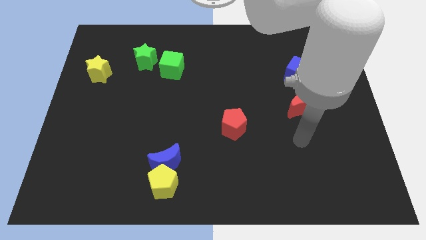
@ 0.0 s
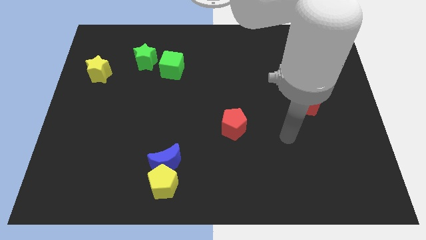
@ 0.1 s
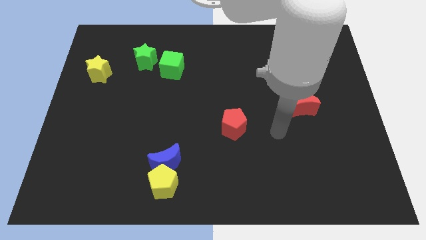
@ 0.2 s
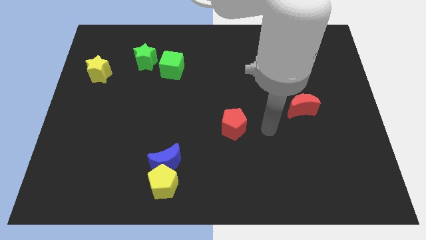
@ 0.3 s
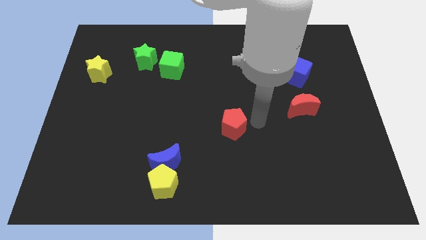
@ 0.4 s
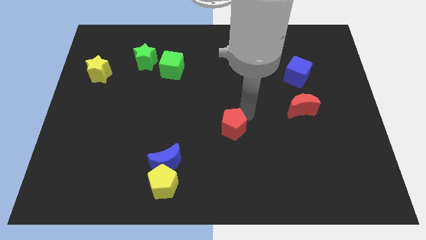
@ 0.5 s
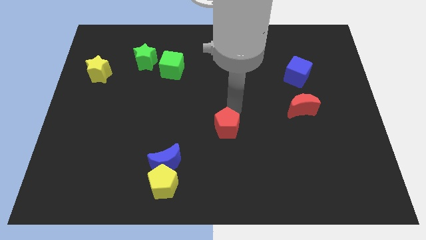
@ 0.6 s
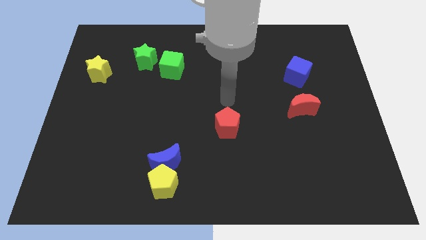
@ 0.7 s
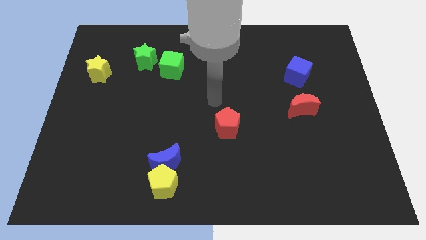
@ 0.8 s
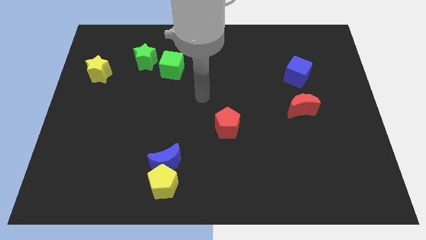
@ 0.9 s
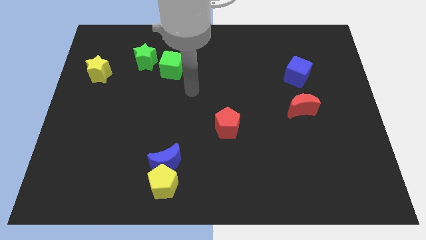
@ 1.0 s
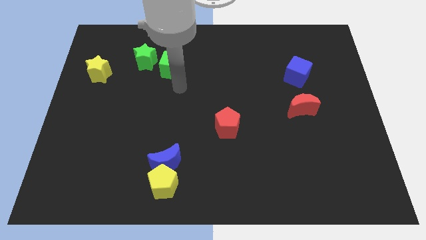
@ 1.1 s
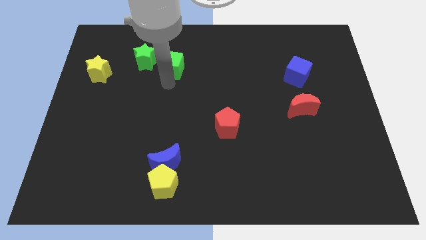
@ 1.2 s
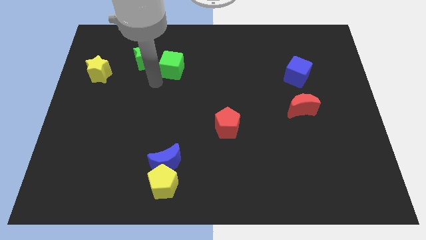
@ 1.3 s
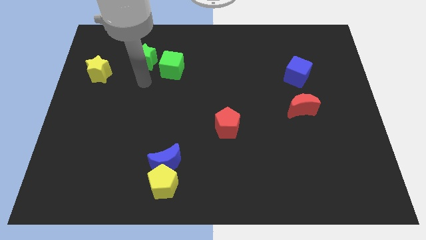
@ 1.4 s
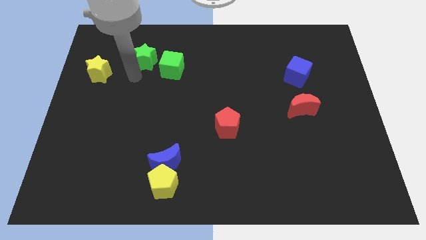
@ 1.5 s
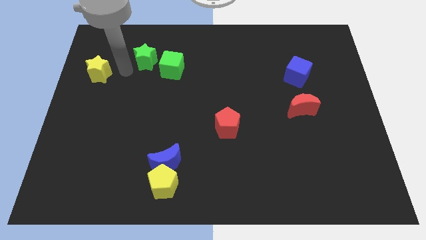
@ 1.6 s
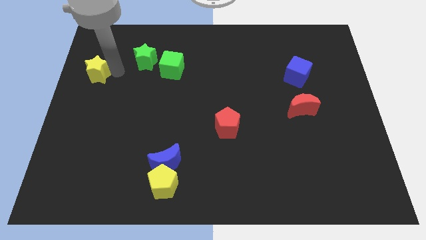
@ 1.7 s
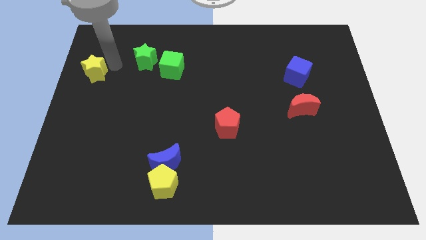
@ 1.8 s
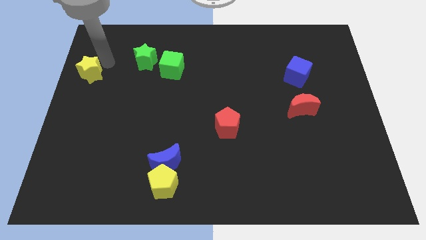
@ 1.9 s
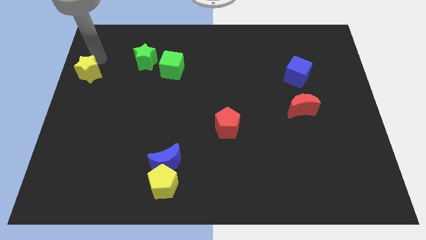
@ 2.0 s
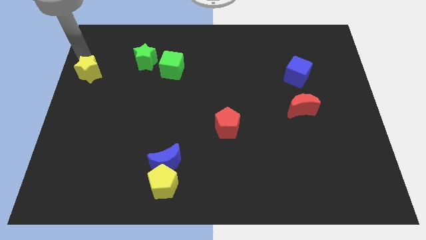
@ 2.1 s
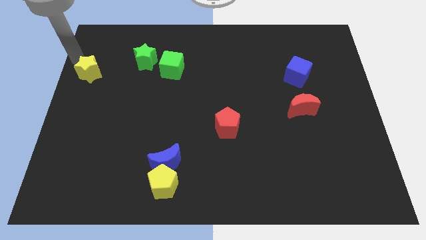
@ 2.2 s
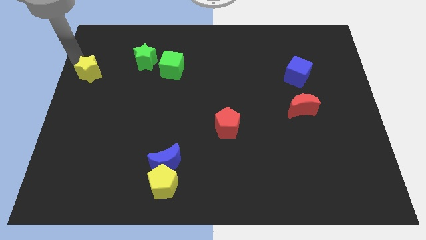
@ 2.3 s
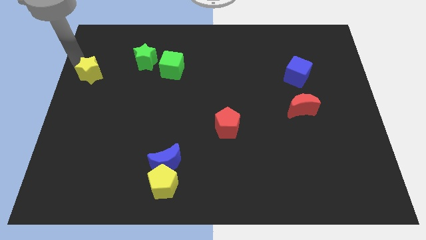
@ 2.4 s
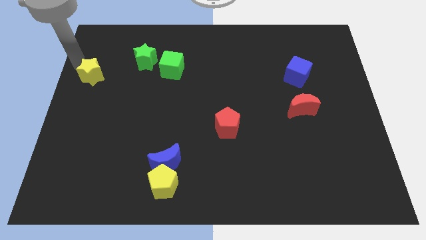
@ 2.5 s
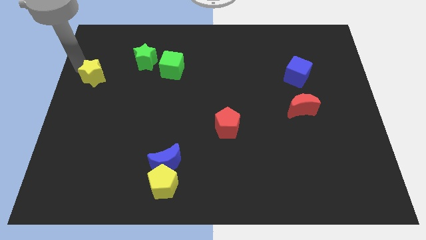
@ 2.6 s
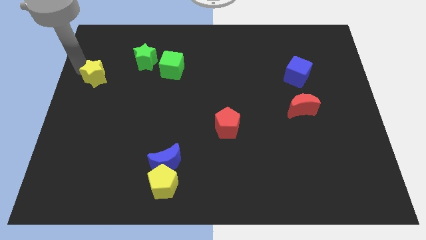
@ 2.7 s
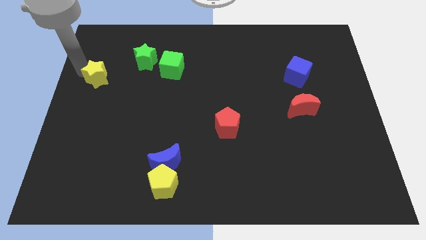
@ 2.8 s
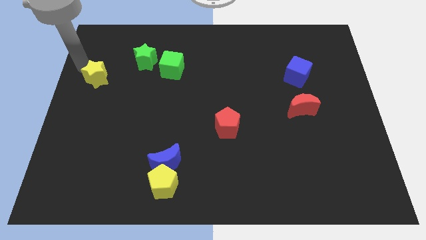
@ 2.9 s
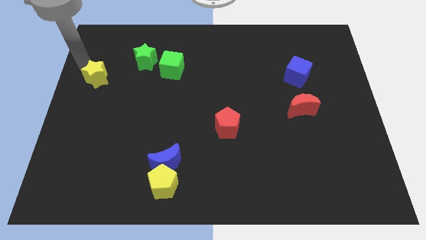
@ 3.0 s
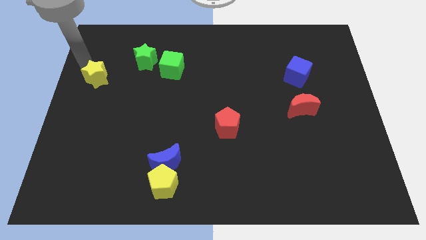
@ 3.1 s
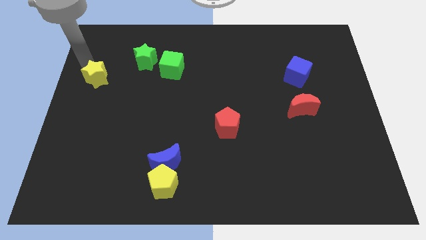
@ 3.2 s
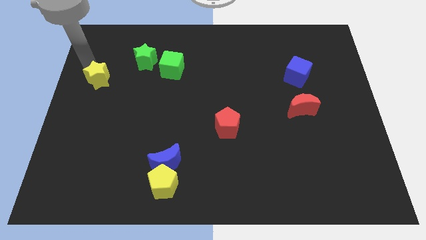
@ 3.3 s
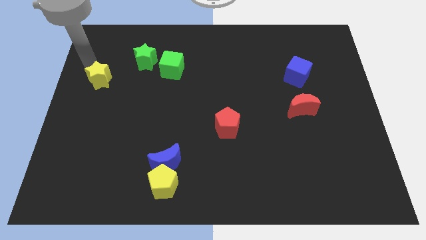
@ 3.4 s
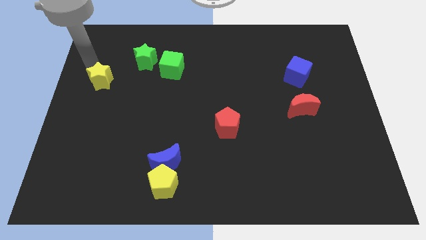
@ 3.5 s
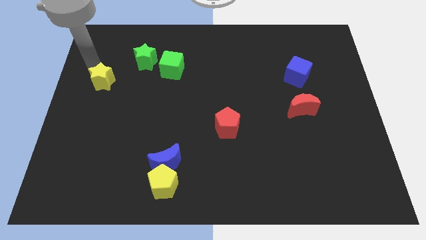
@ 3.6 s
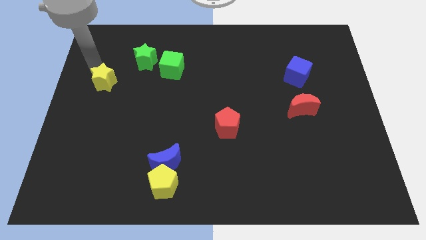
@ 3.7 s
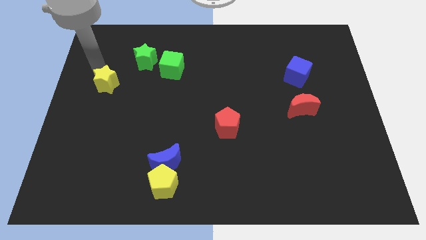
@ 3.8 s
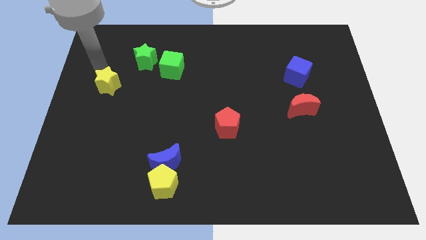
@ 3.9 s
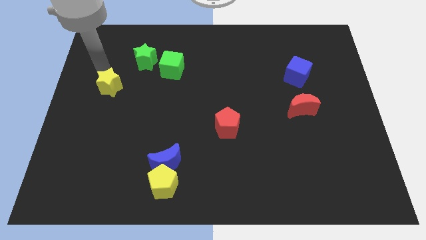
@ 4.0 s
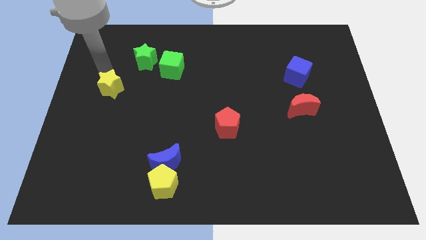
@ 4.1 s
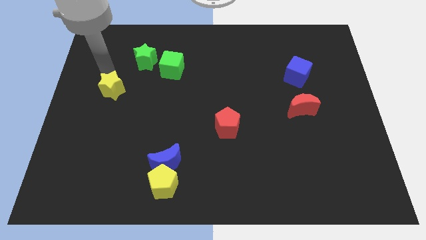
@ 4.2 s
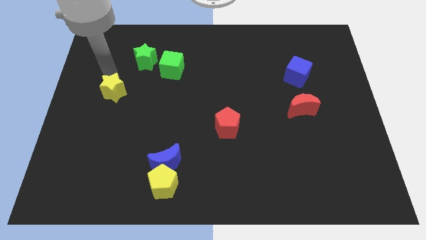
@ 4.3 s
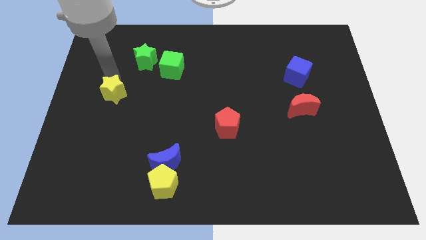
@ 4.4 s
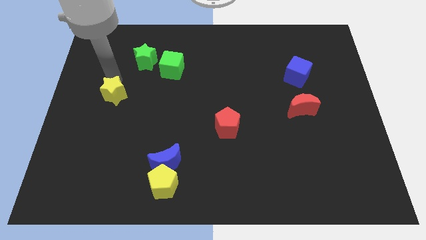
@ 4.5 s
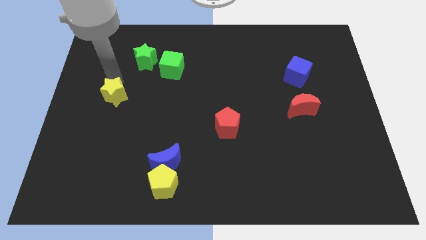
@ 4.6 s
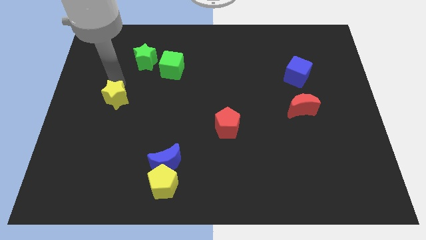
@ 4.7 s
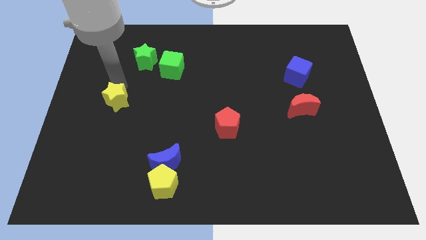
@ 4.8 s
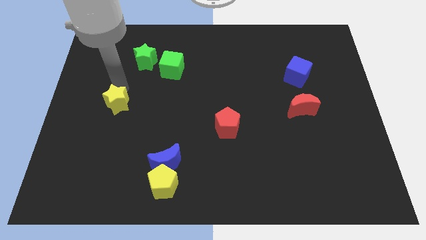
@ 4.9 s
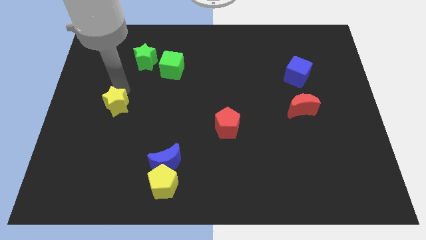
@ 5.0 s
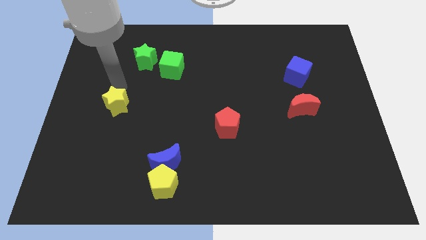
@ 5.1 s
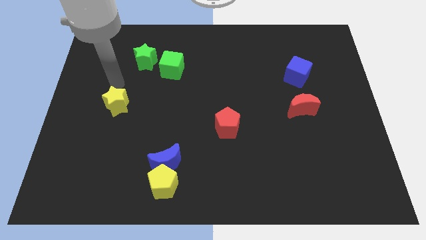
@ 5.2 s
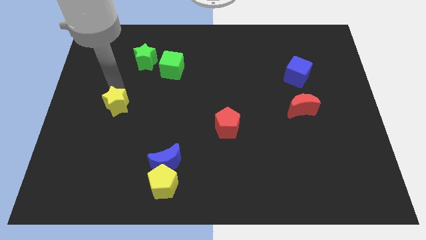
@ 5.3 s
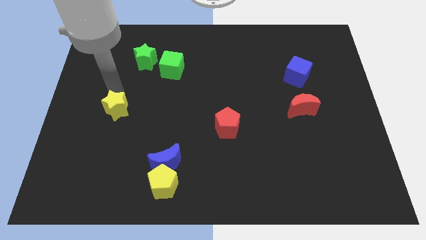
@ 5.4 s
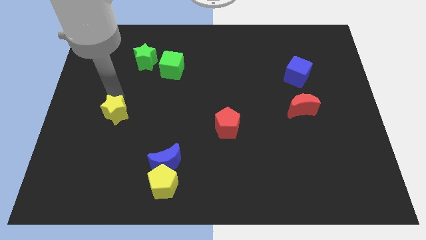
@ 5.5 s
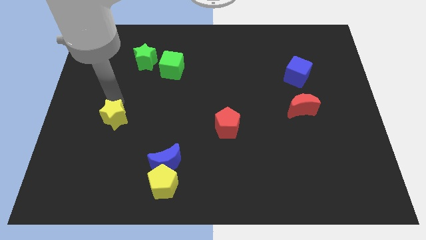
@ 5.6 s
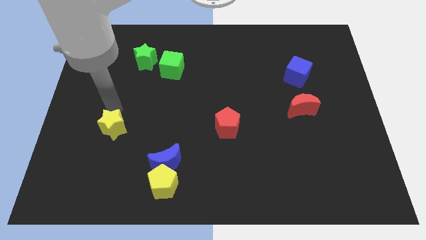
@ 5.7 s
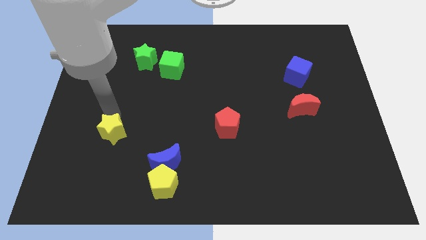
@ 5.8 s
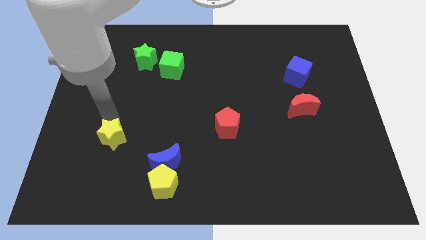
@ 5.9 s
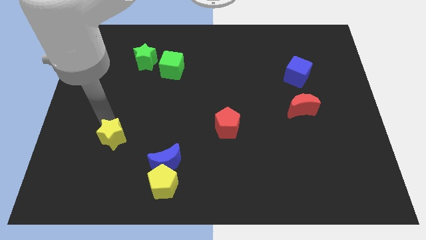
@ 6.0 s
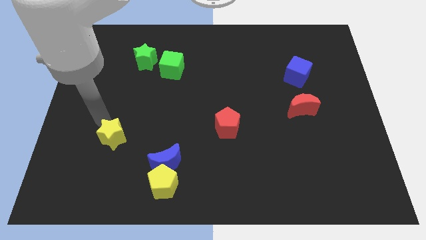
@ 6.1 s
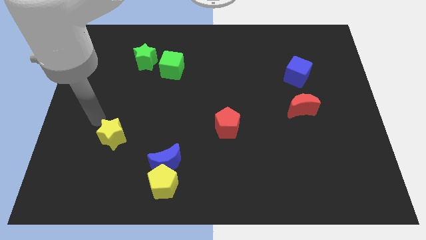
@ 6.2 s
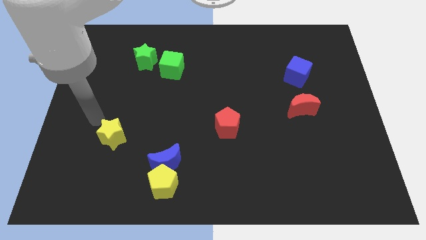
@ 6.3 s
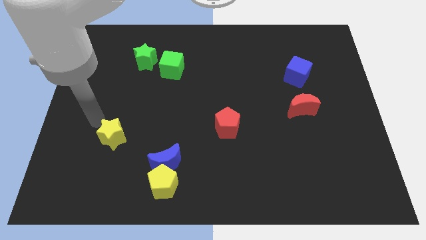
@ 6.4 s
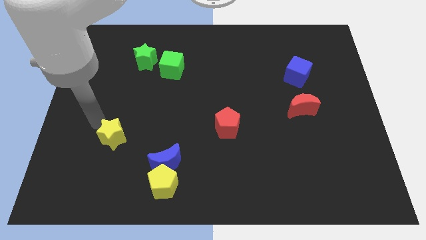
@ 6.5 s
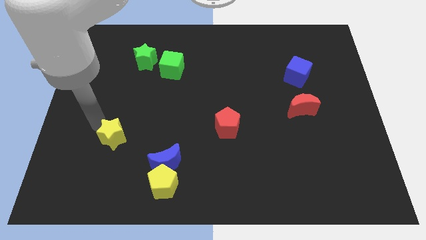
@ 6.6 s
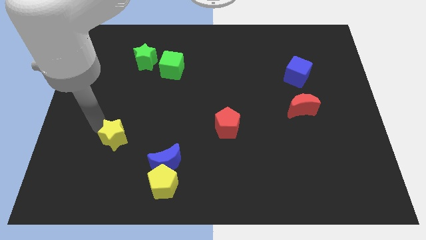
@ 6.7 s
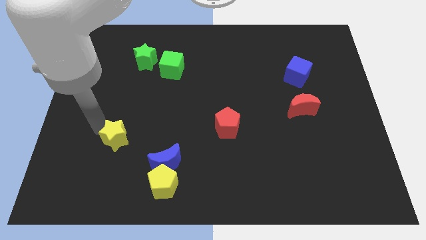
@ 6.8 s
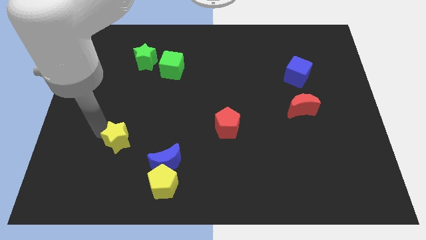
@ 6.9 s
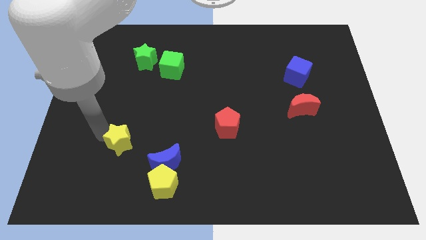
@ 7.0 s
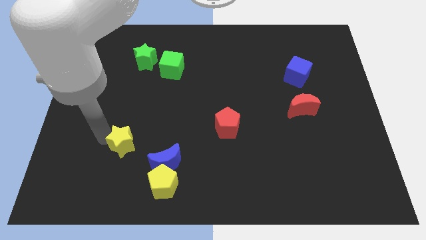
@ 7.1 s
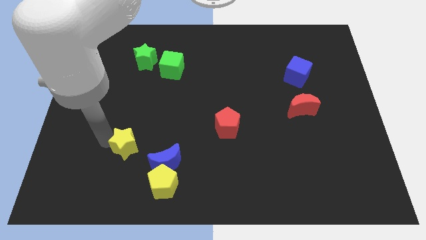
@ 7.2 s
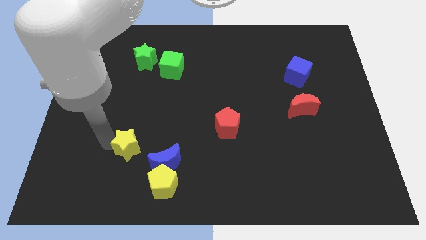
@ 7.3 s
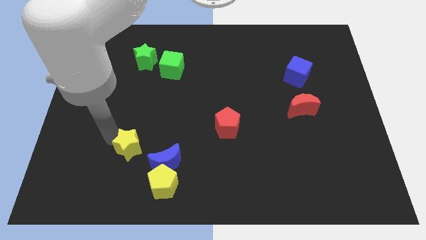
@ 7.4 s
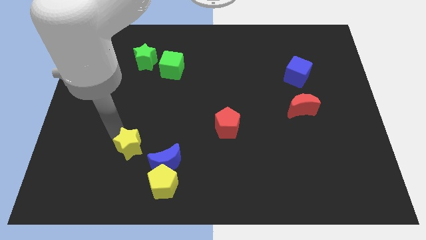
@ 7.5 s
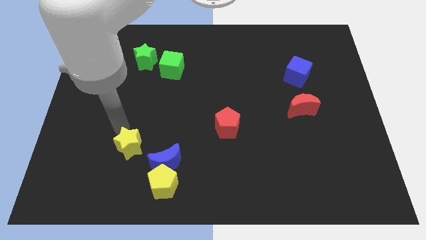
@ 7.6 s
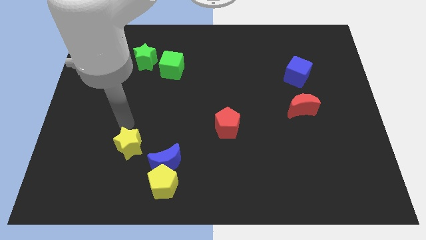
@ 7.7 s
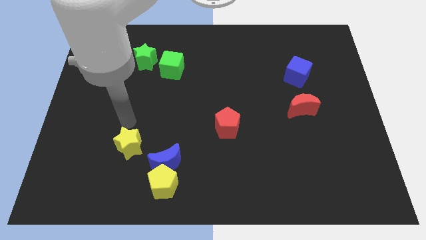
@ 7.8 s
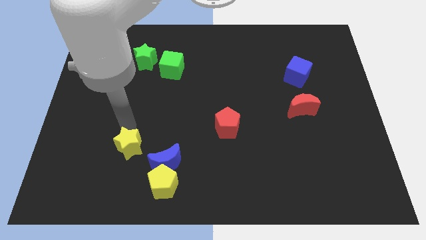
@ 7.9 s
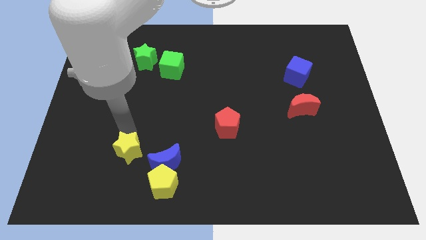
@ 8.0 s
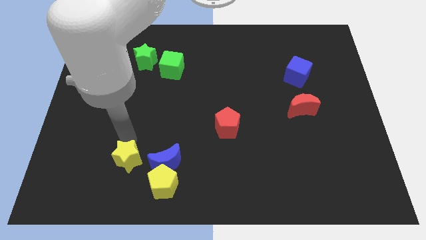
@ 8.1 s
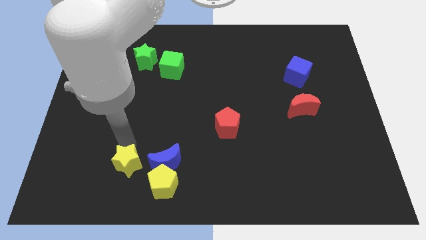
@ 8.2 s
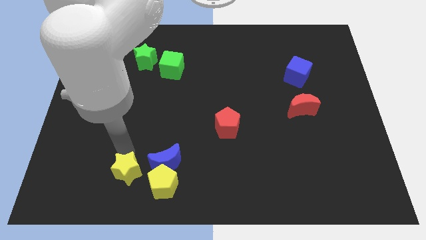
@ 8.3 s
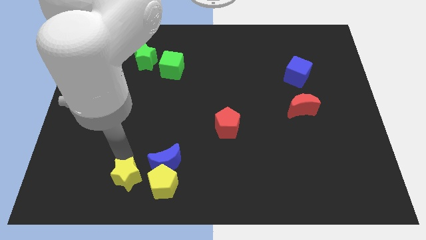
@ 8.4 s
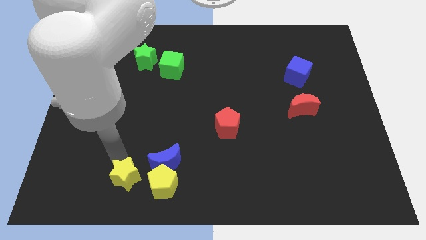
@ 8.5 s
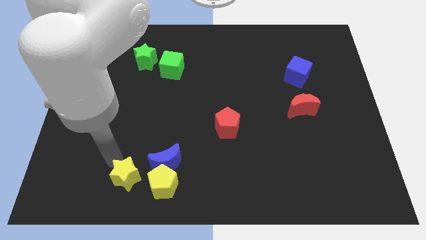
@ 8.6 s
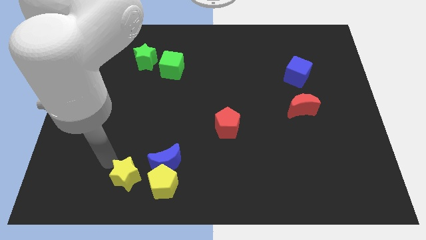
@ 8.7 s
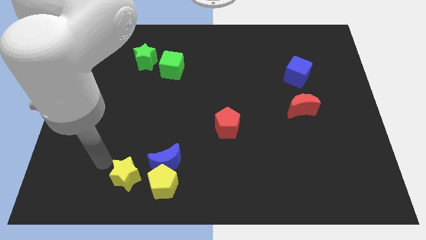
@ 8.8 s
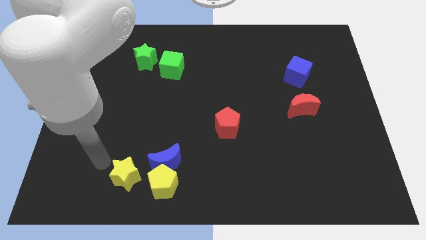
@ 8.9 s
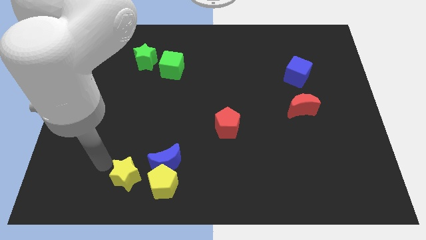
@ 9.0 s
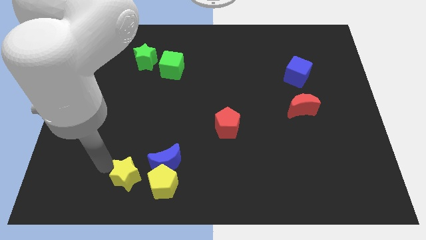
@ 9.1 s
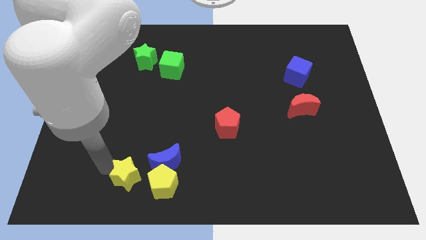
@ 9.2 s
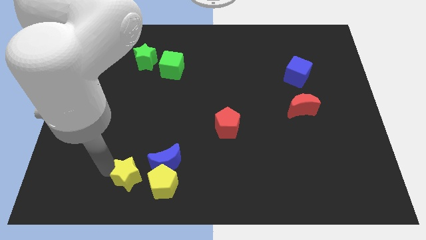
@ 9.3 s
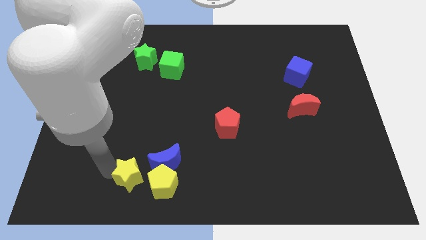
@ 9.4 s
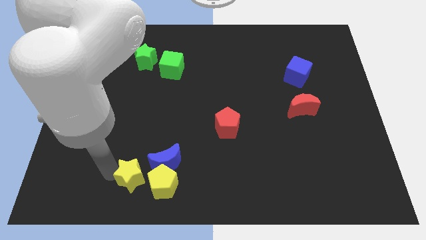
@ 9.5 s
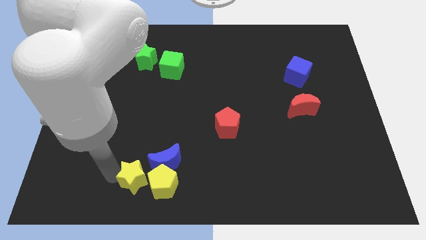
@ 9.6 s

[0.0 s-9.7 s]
push the yellow star towards the yellow pentagon
